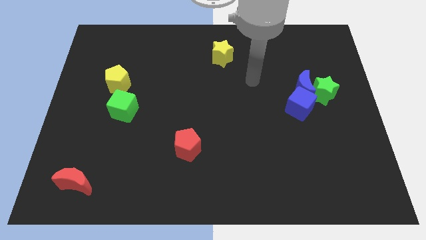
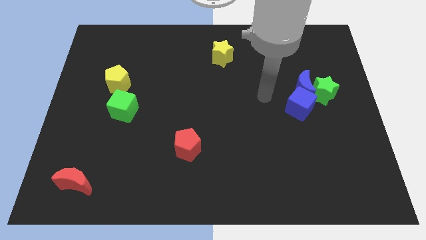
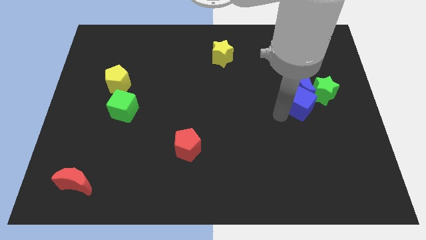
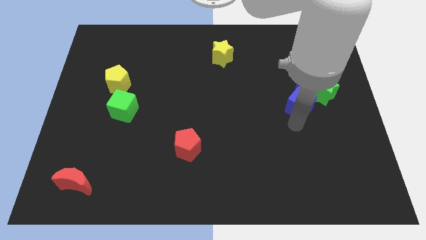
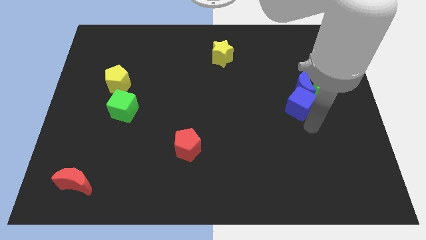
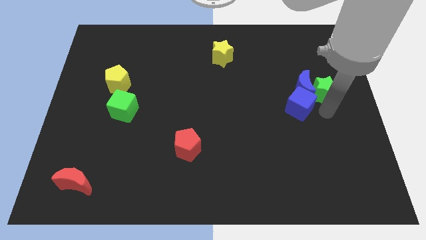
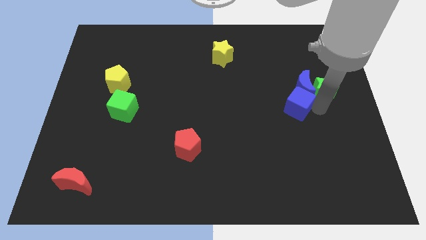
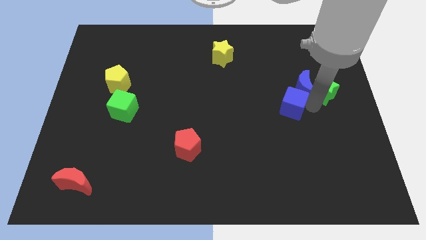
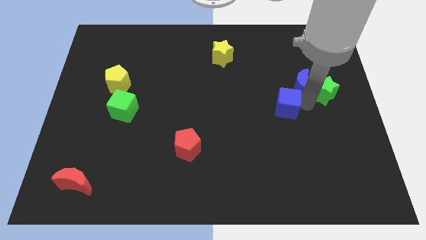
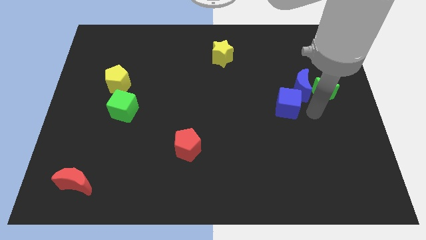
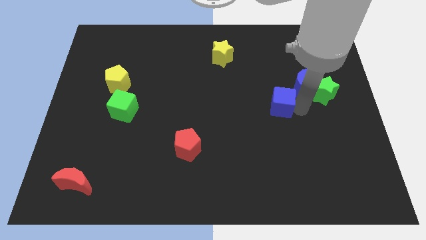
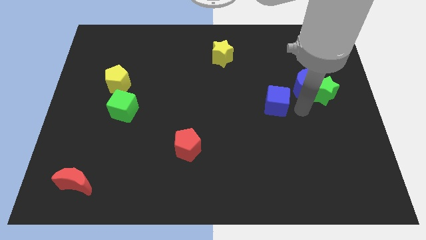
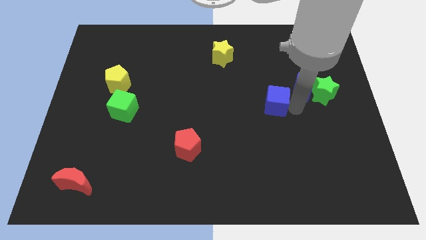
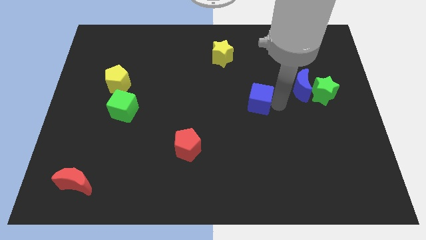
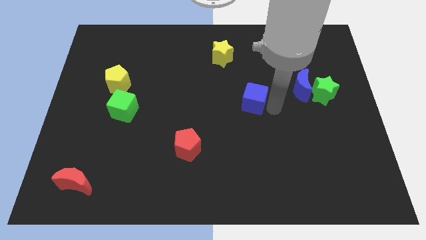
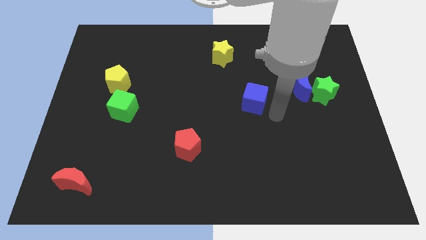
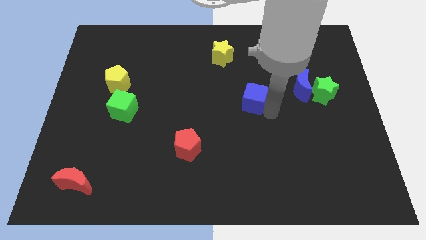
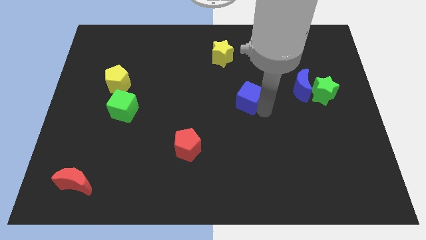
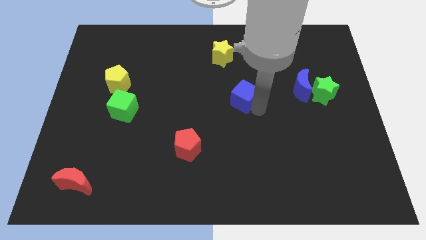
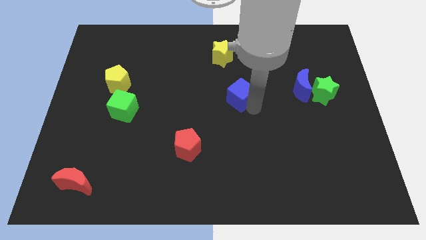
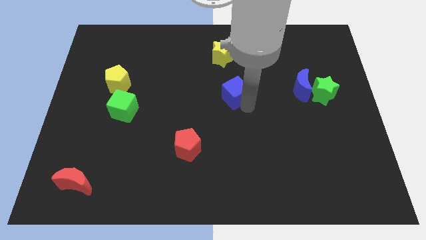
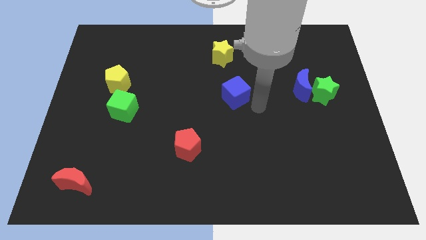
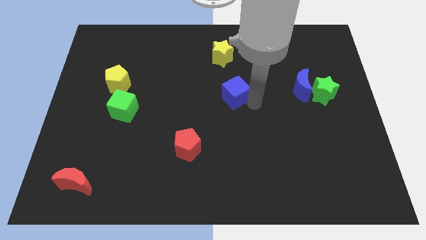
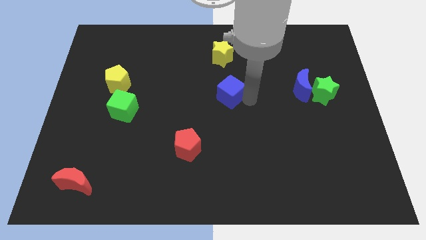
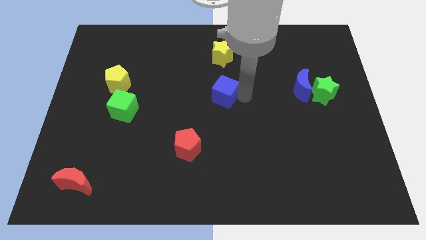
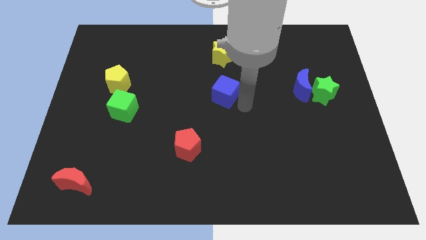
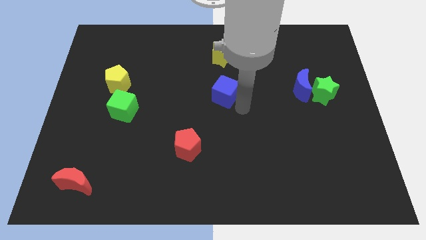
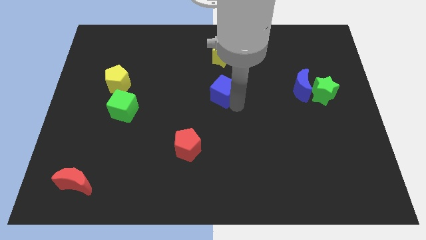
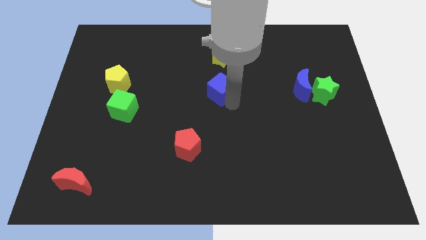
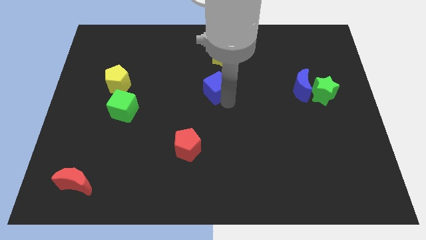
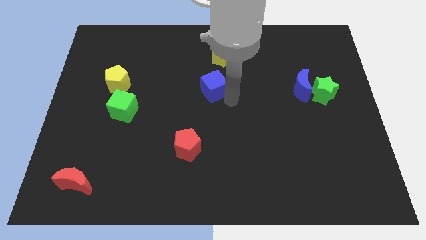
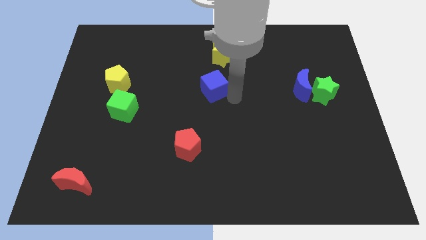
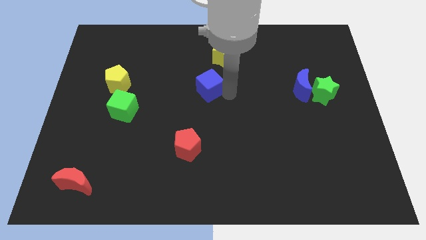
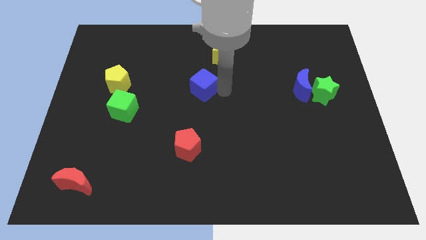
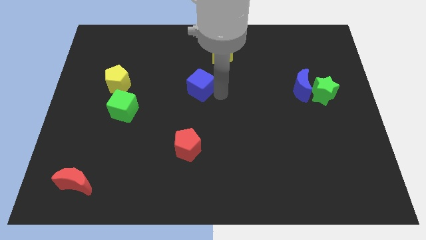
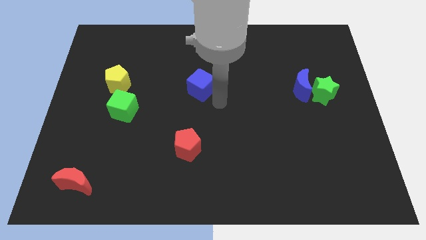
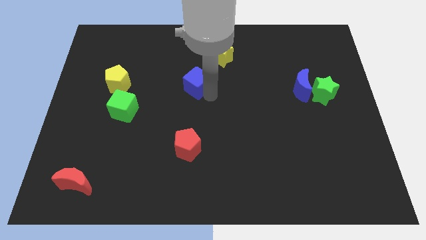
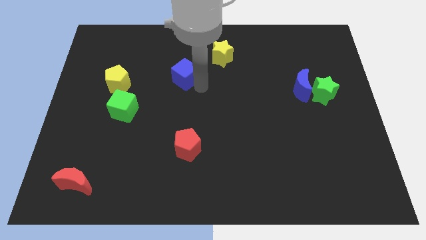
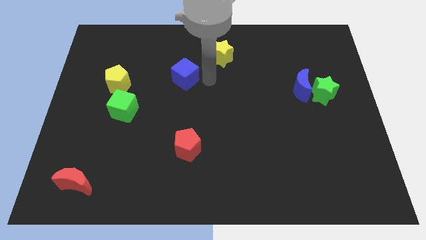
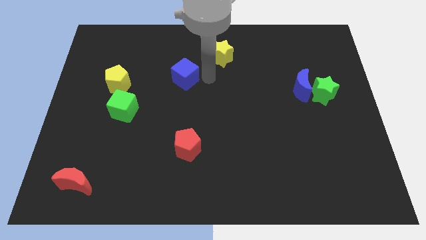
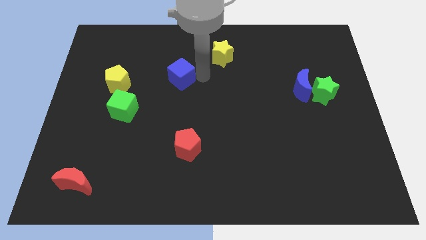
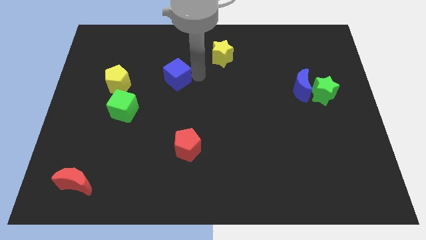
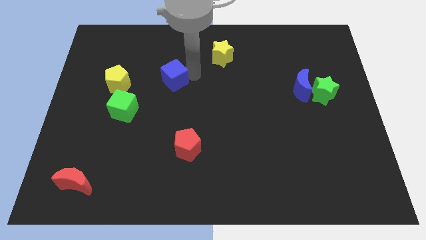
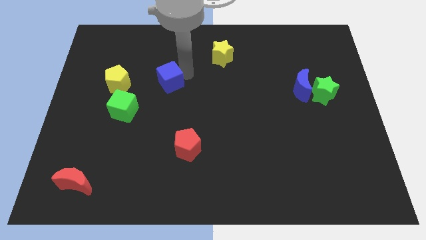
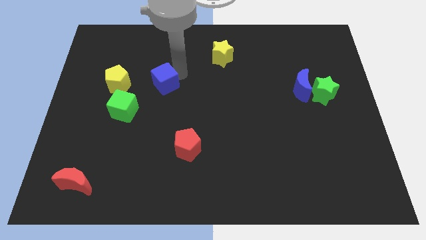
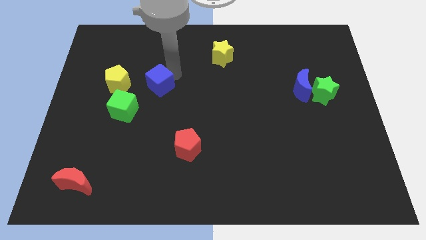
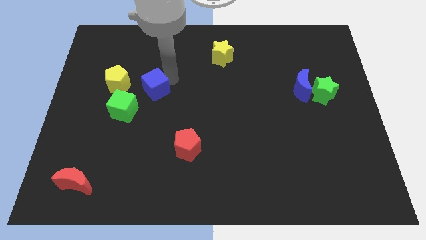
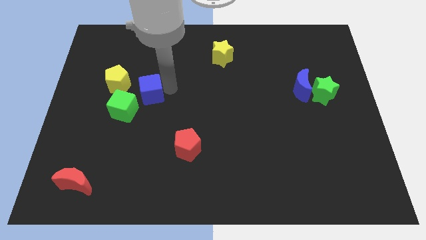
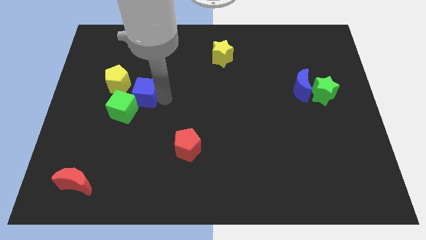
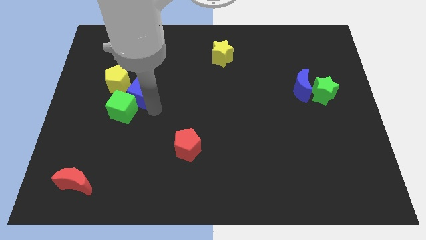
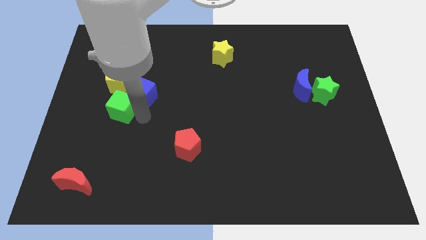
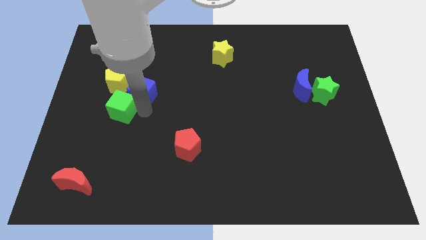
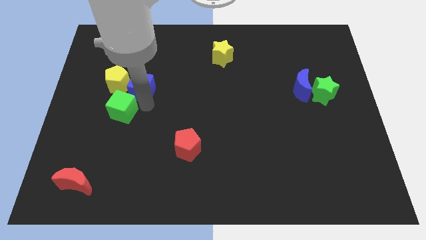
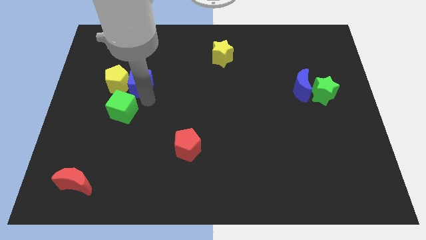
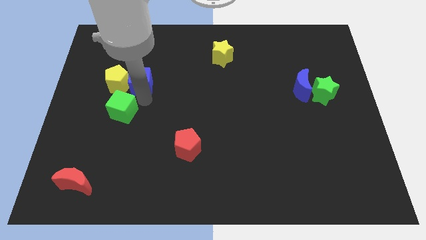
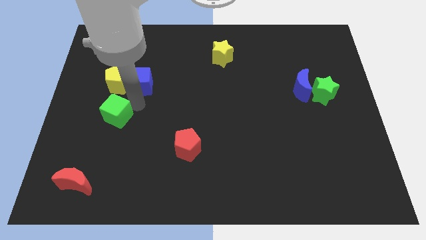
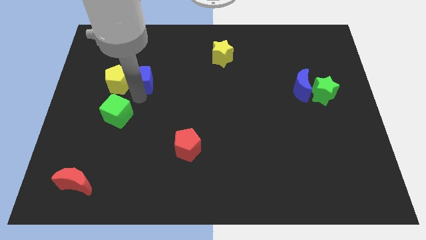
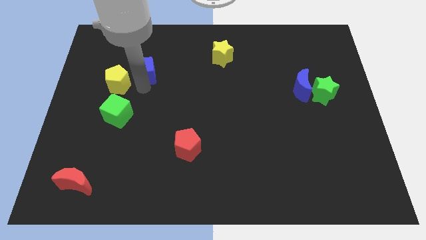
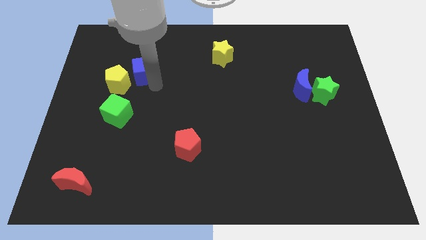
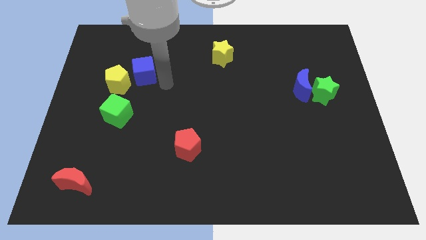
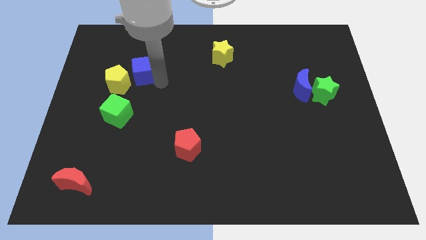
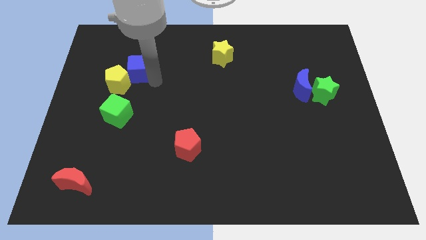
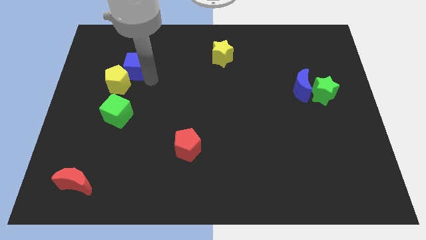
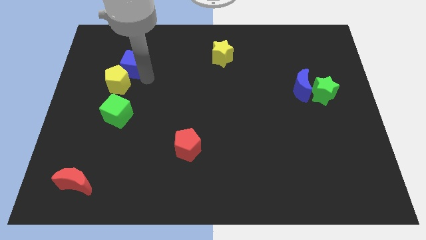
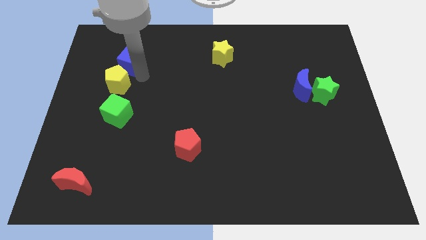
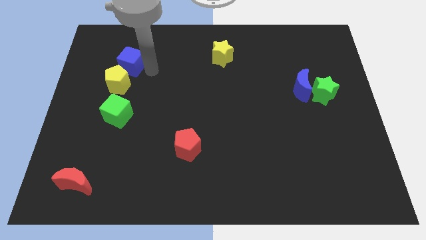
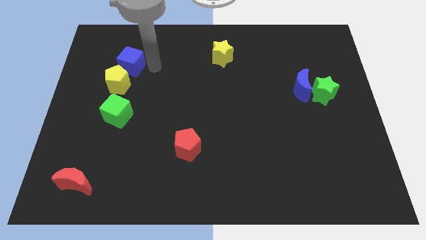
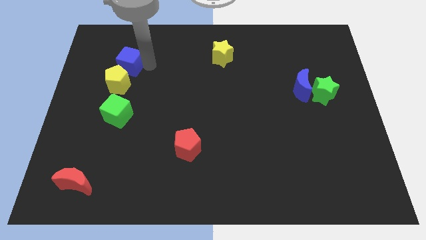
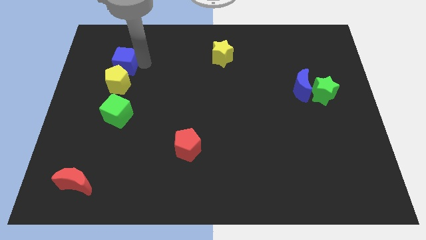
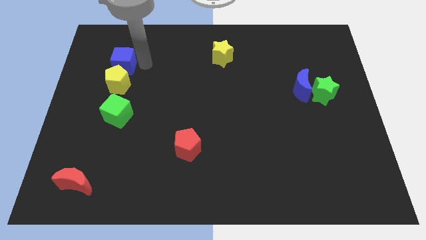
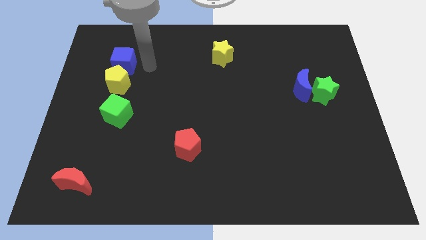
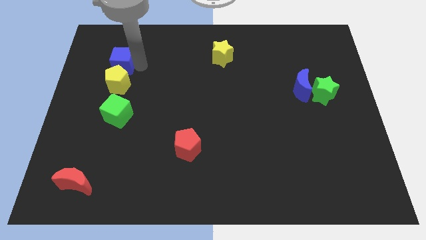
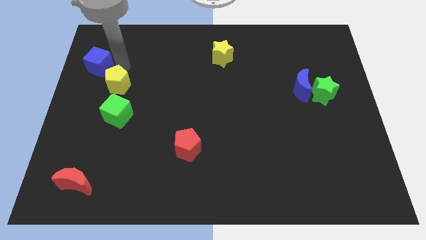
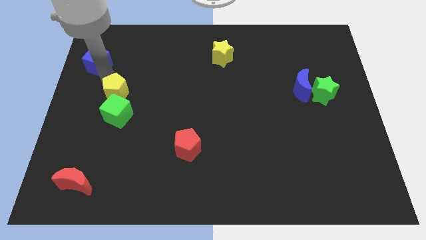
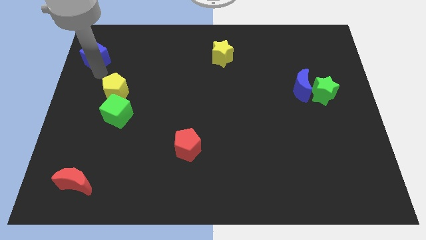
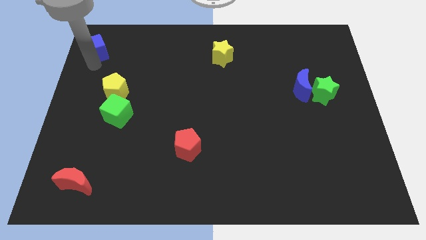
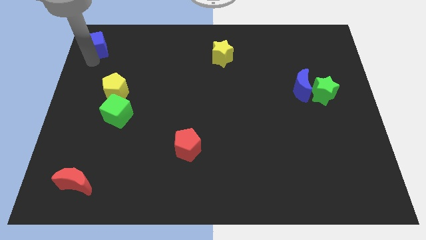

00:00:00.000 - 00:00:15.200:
slide the blue cube to the top left corner

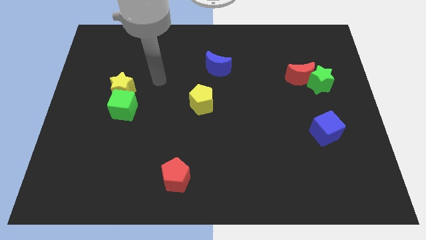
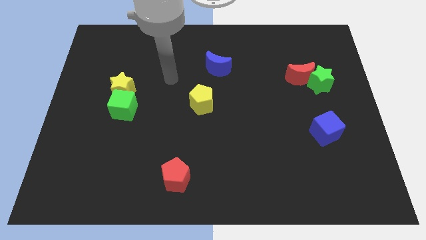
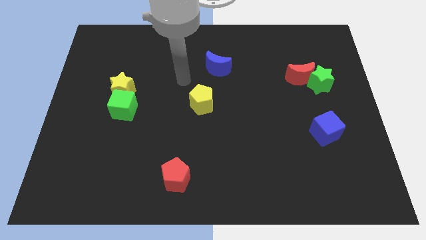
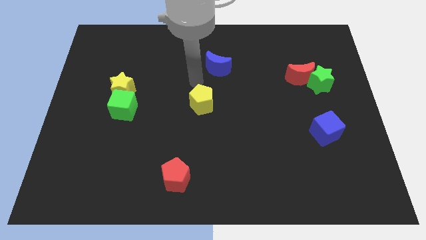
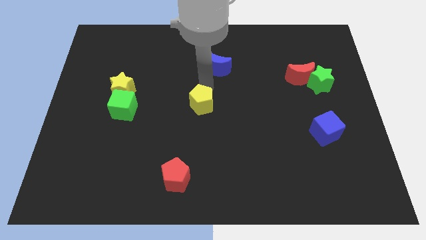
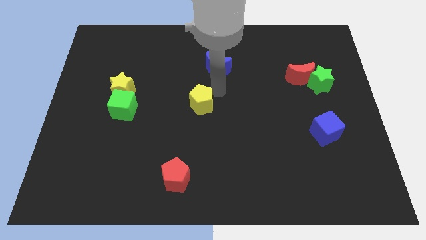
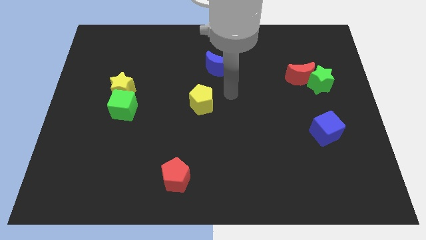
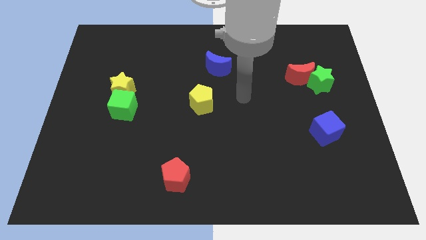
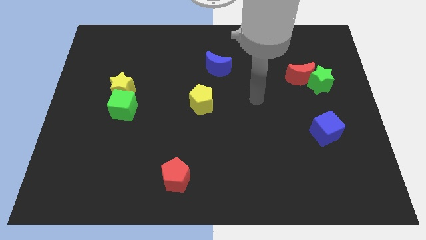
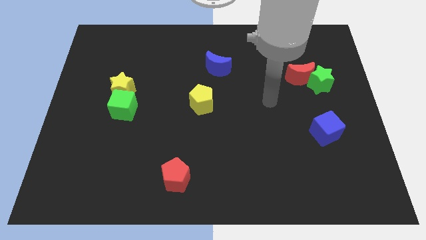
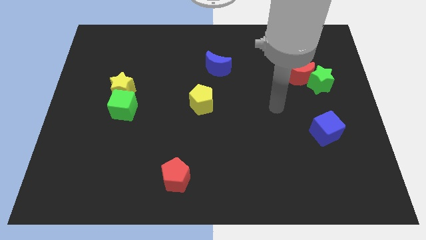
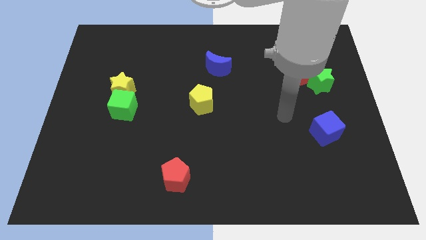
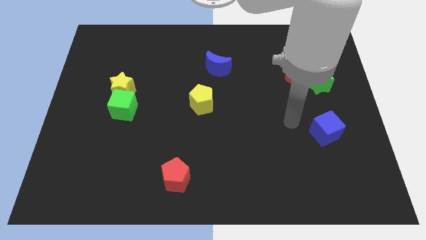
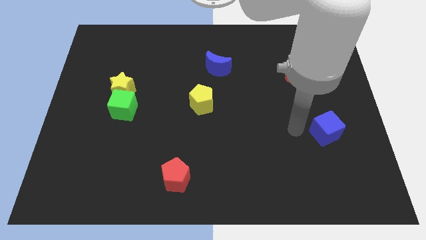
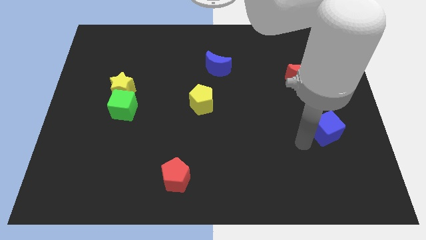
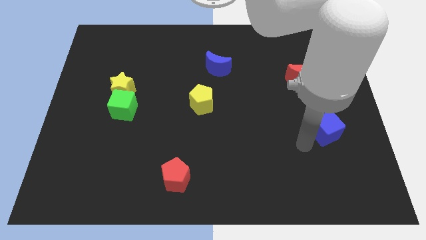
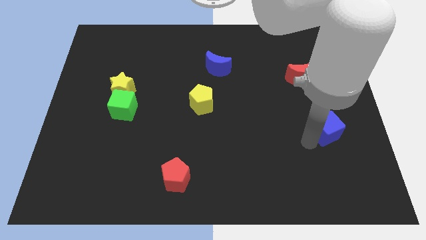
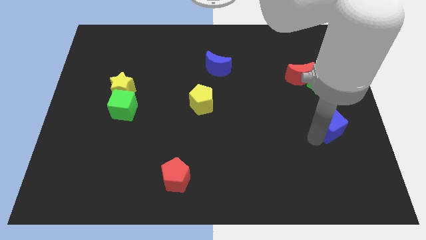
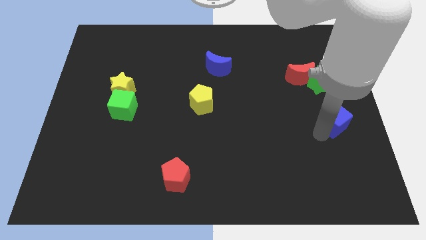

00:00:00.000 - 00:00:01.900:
put the blue cube to the right side
